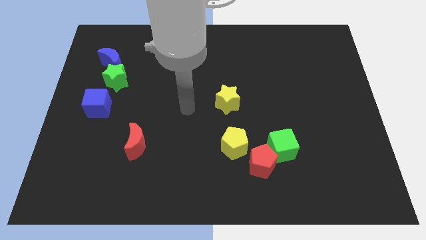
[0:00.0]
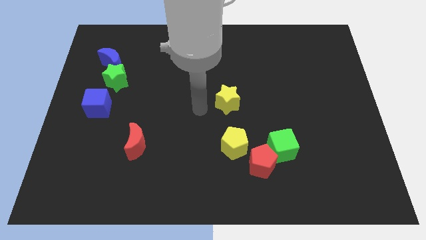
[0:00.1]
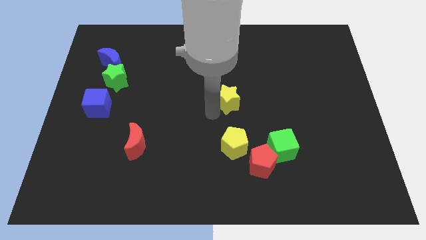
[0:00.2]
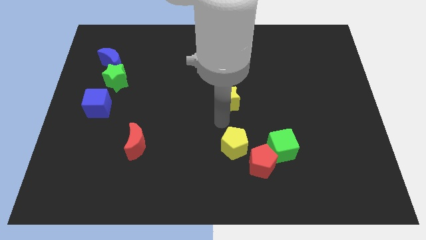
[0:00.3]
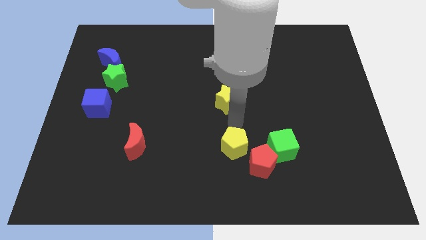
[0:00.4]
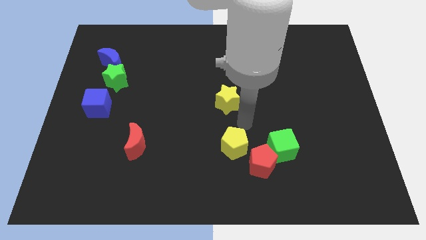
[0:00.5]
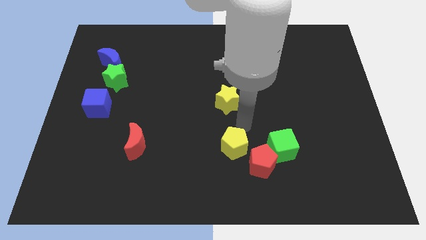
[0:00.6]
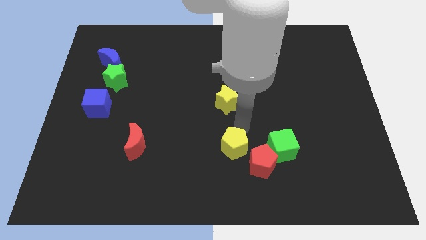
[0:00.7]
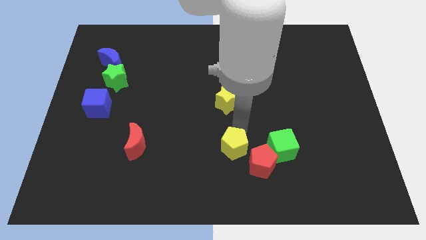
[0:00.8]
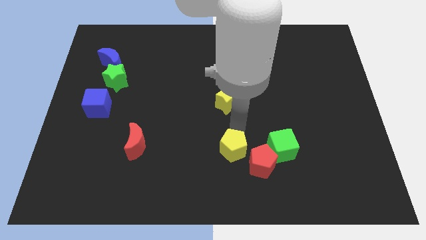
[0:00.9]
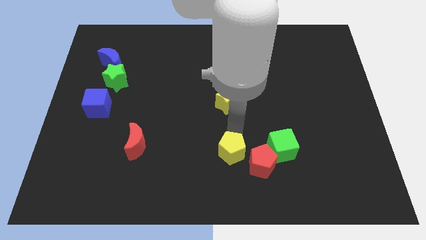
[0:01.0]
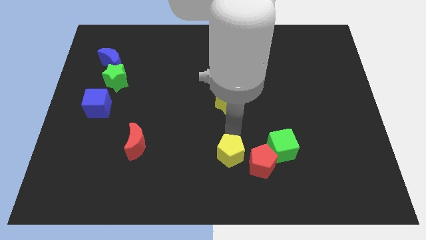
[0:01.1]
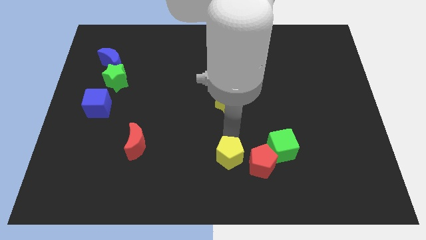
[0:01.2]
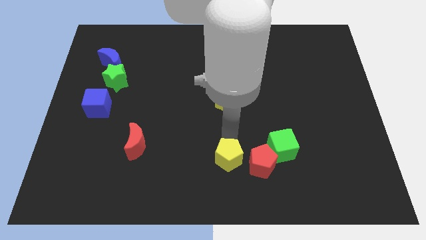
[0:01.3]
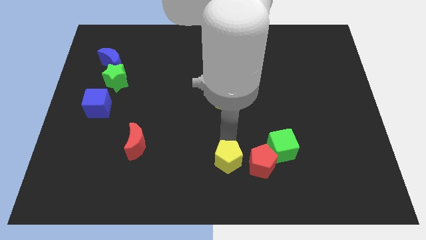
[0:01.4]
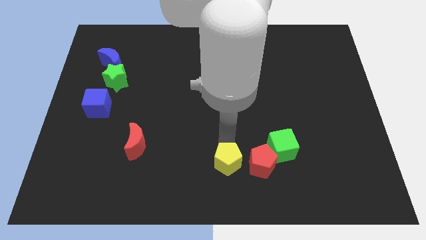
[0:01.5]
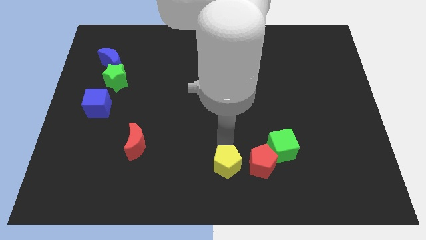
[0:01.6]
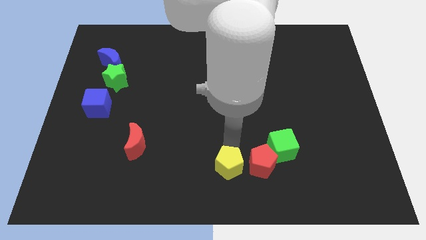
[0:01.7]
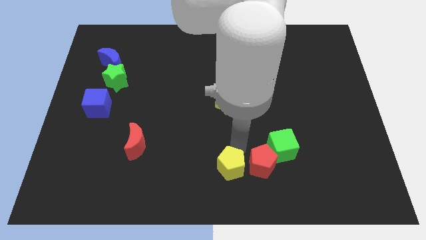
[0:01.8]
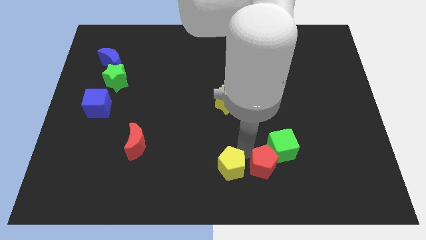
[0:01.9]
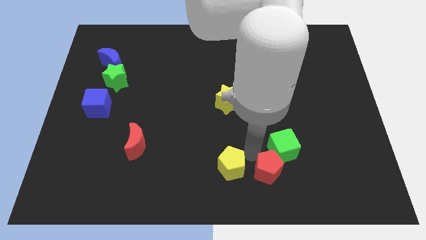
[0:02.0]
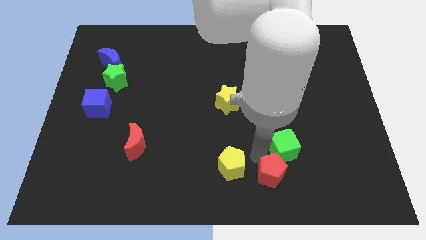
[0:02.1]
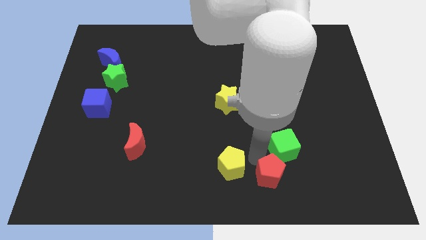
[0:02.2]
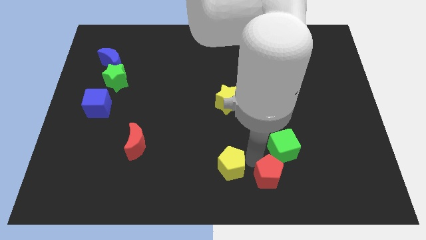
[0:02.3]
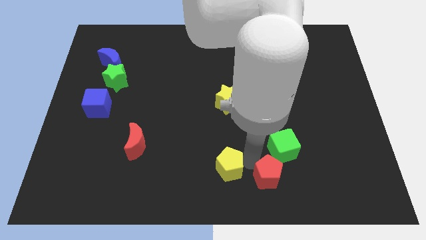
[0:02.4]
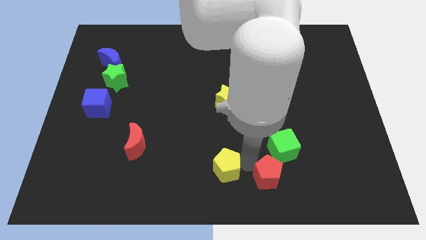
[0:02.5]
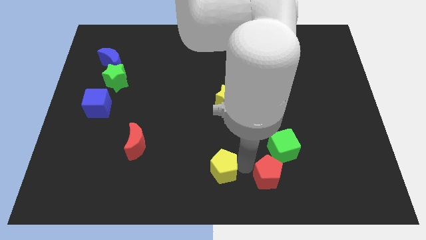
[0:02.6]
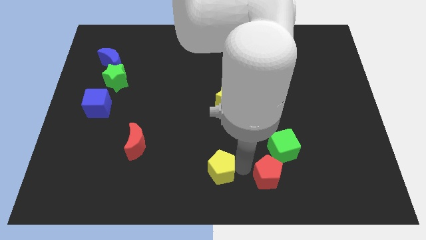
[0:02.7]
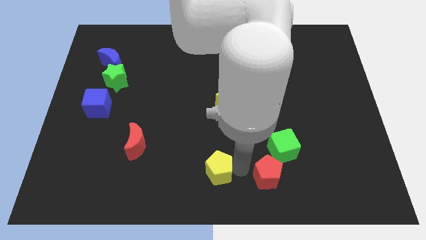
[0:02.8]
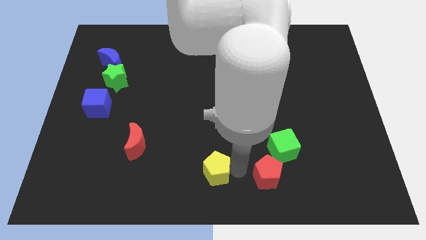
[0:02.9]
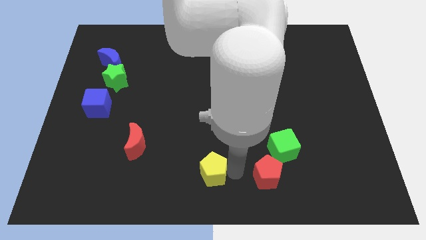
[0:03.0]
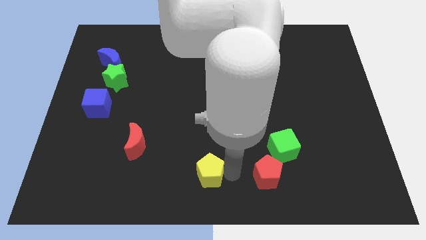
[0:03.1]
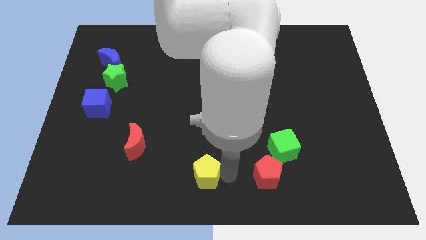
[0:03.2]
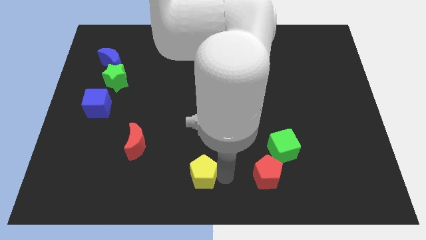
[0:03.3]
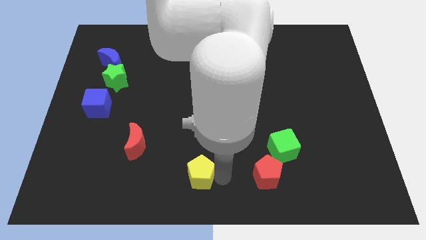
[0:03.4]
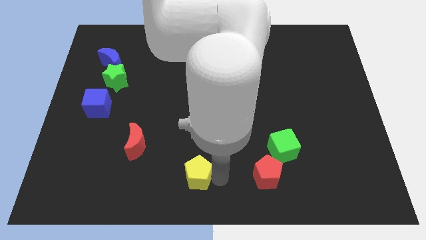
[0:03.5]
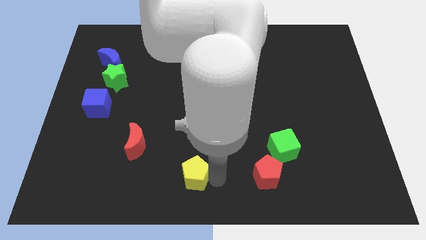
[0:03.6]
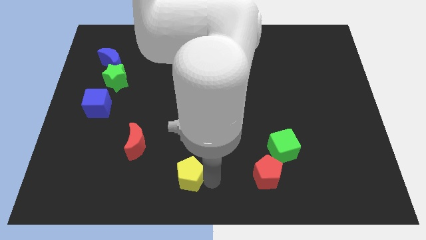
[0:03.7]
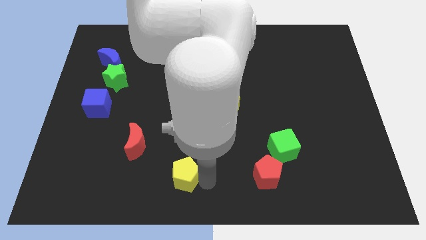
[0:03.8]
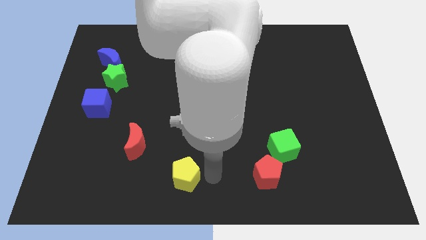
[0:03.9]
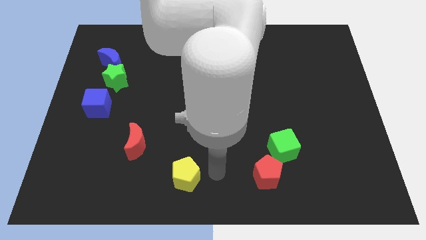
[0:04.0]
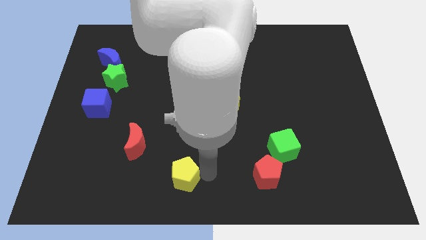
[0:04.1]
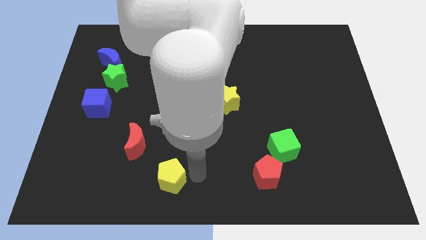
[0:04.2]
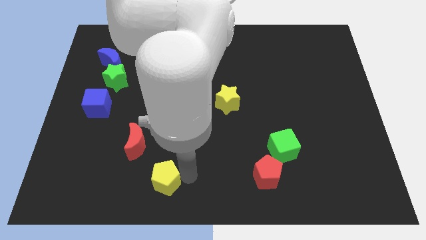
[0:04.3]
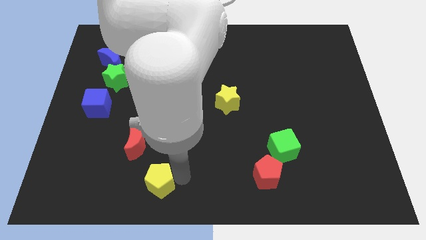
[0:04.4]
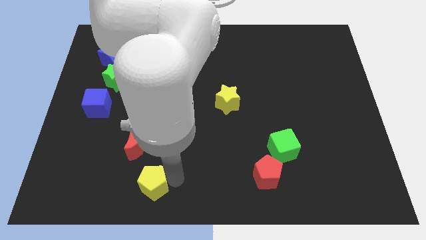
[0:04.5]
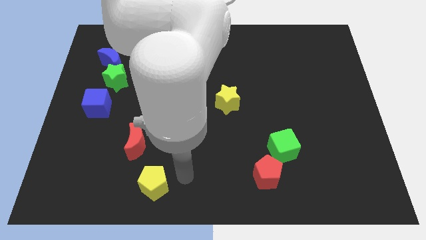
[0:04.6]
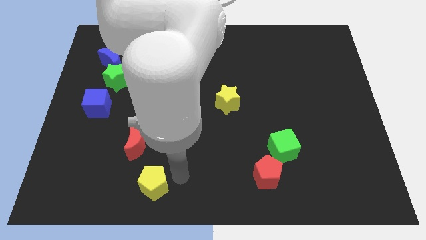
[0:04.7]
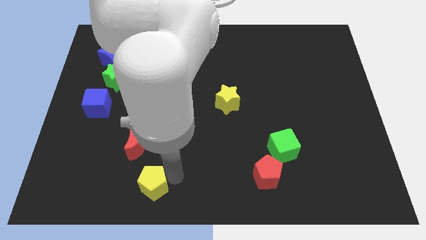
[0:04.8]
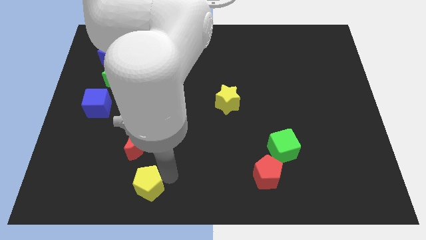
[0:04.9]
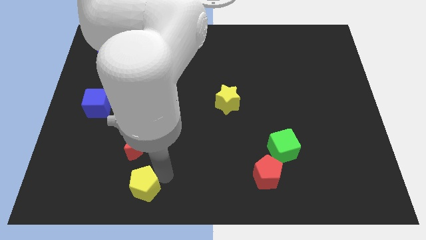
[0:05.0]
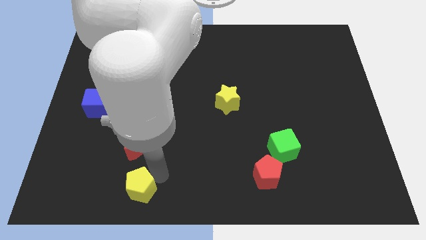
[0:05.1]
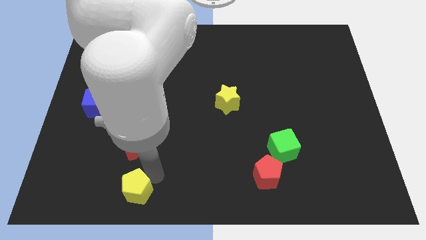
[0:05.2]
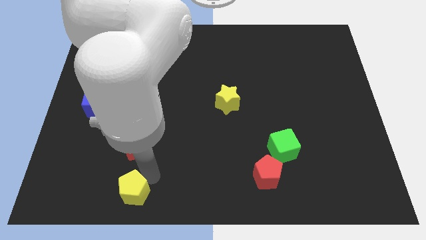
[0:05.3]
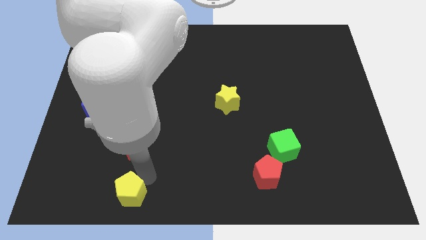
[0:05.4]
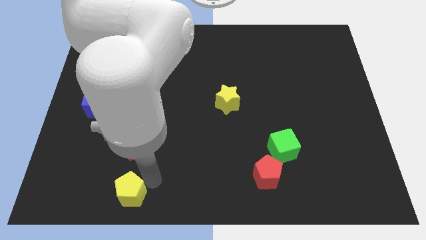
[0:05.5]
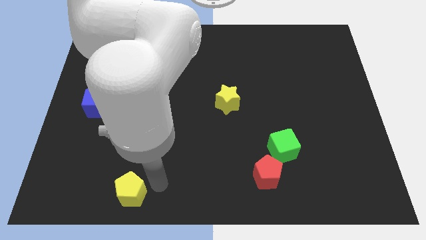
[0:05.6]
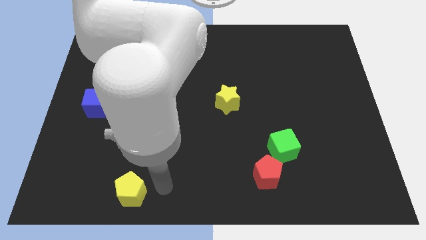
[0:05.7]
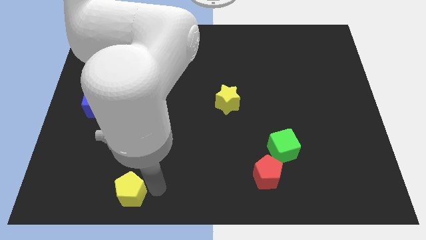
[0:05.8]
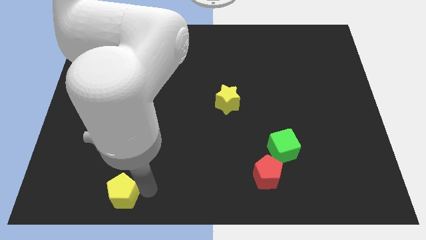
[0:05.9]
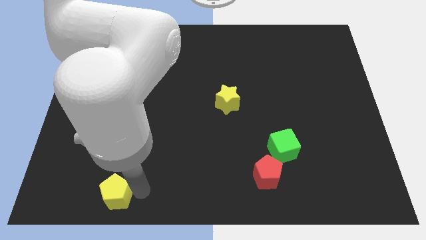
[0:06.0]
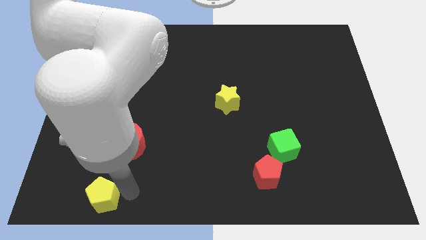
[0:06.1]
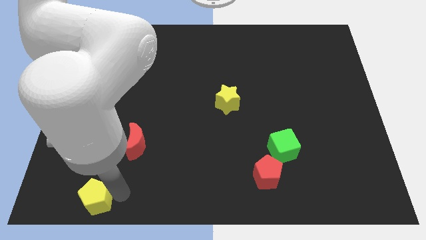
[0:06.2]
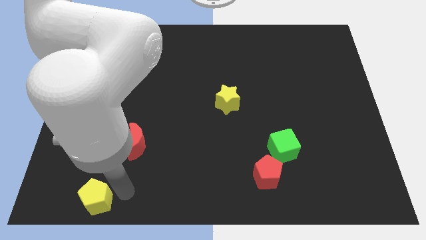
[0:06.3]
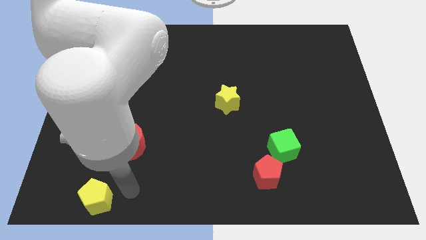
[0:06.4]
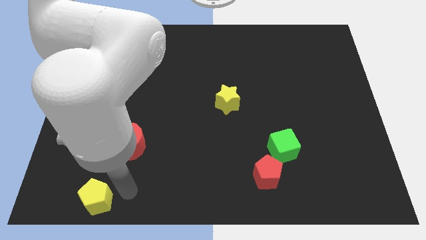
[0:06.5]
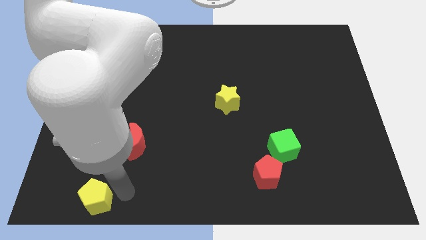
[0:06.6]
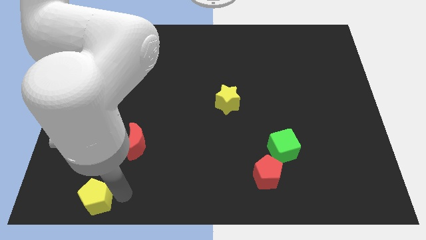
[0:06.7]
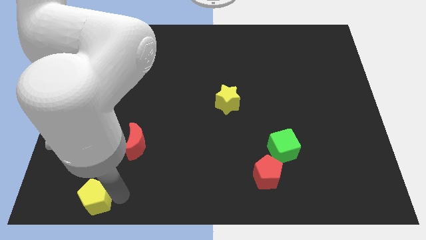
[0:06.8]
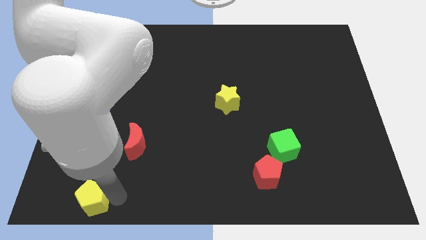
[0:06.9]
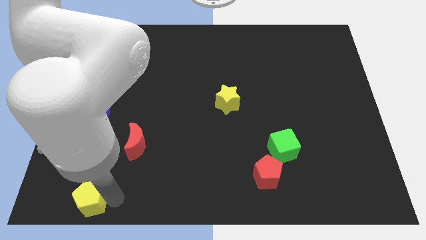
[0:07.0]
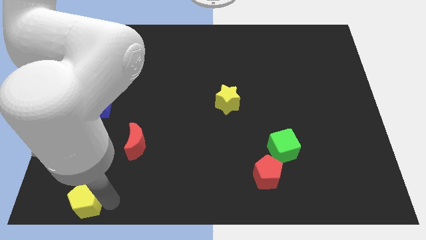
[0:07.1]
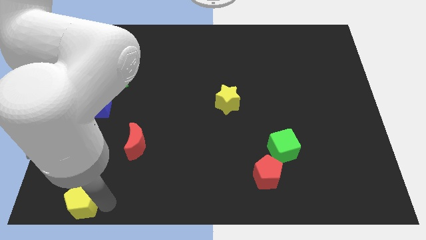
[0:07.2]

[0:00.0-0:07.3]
put the yellow pentagon to the bottom left corner
